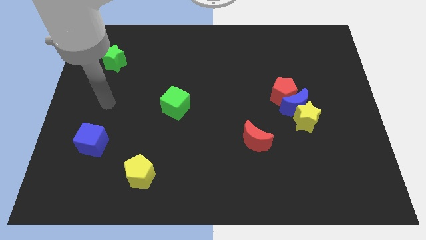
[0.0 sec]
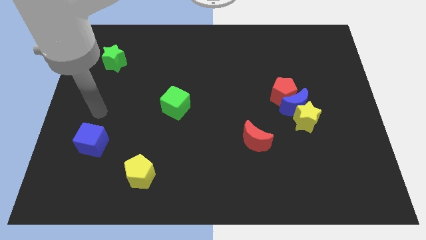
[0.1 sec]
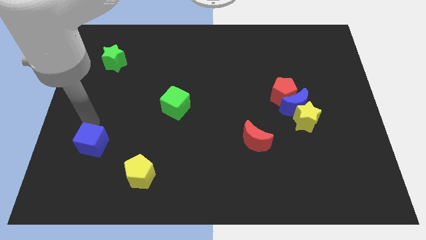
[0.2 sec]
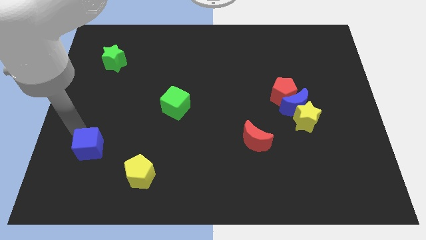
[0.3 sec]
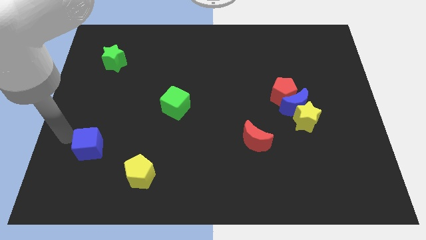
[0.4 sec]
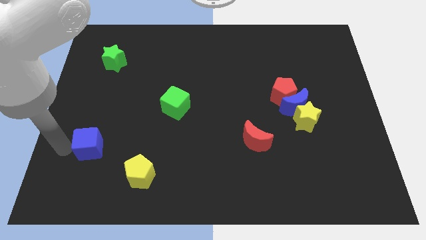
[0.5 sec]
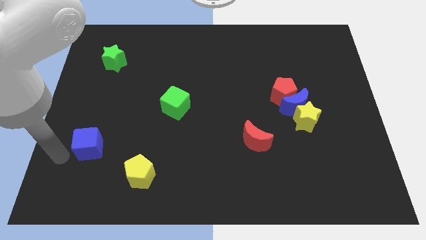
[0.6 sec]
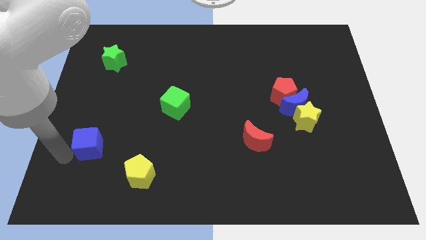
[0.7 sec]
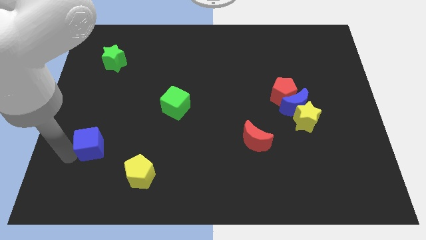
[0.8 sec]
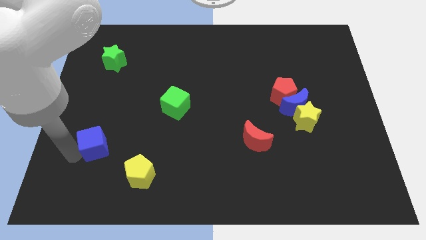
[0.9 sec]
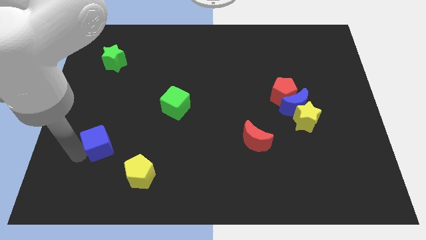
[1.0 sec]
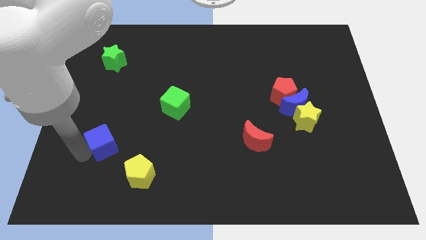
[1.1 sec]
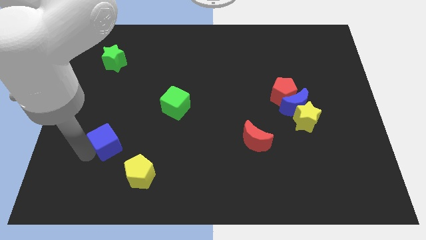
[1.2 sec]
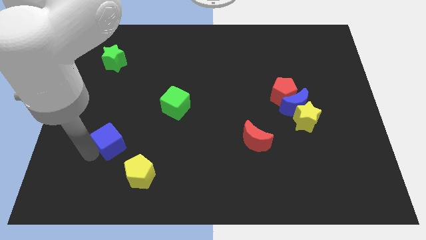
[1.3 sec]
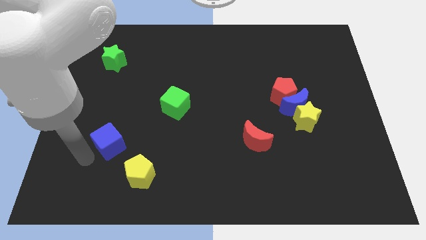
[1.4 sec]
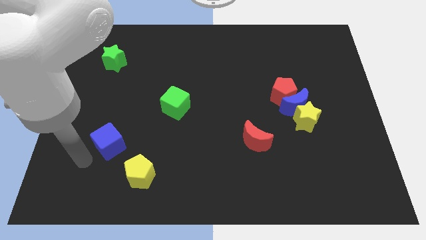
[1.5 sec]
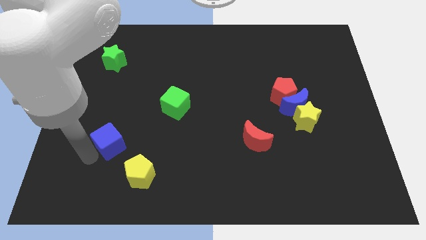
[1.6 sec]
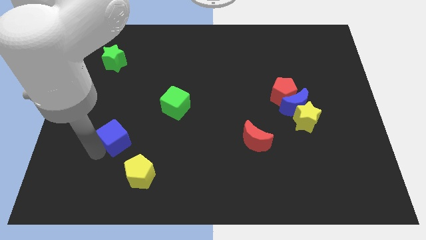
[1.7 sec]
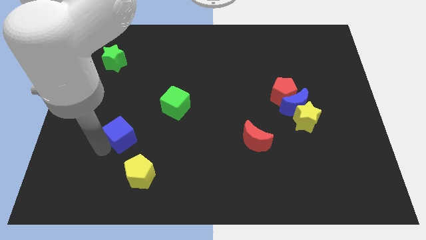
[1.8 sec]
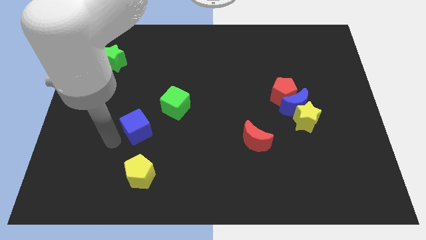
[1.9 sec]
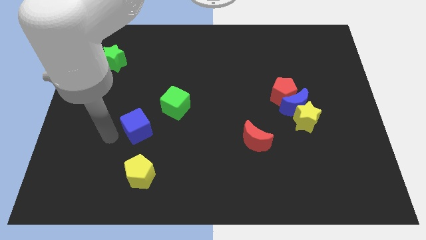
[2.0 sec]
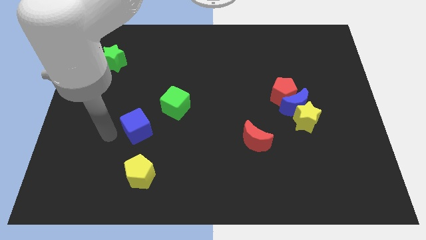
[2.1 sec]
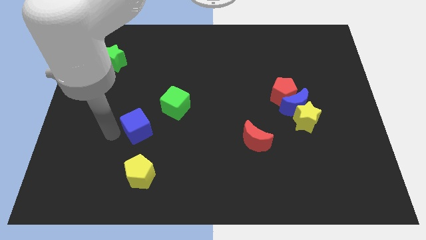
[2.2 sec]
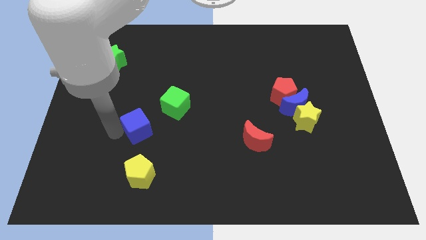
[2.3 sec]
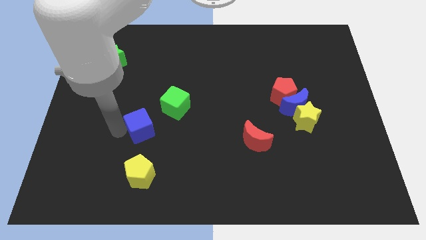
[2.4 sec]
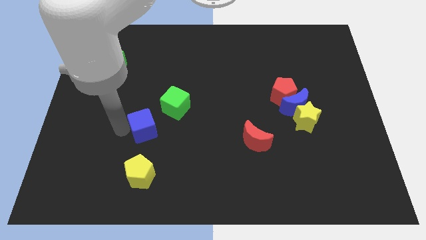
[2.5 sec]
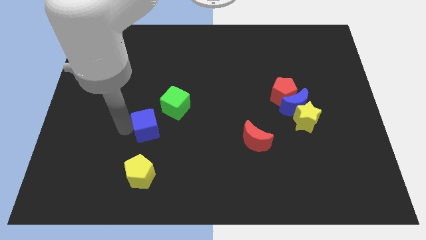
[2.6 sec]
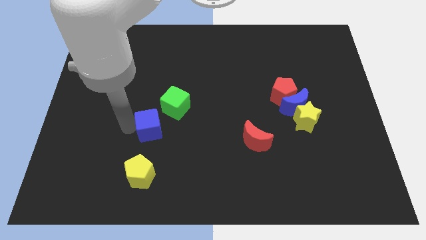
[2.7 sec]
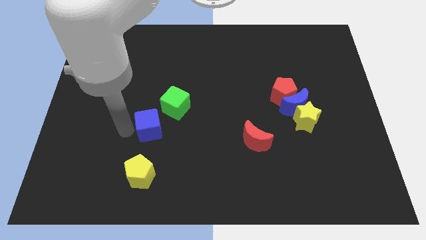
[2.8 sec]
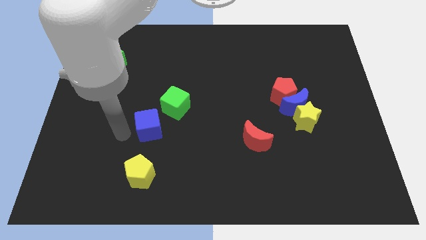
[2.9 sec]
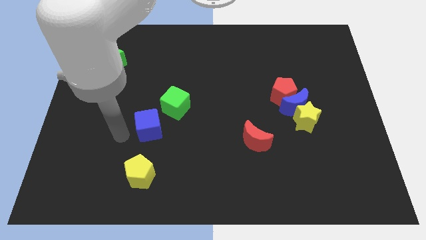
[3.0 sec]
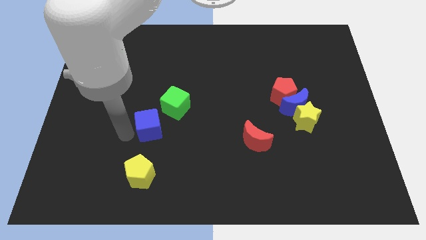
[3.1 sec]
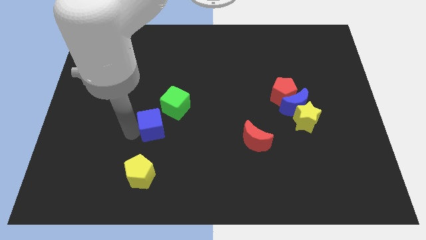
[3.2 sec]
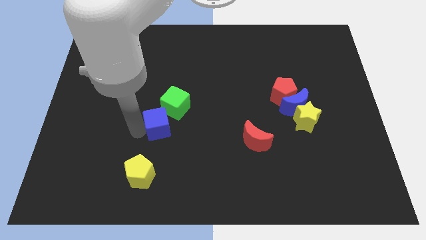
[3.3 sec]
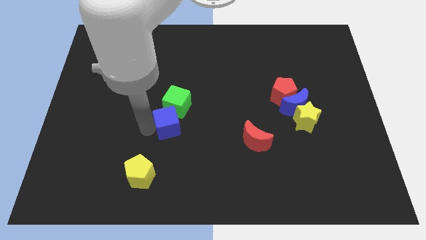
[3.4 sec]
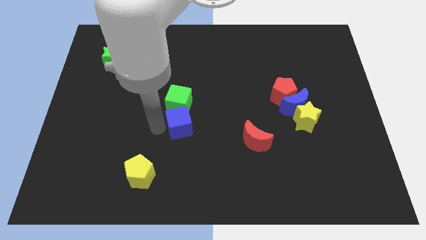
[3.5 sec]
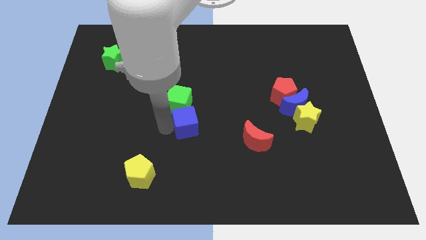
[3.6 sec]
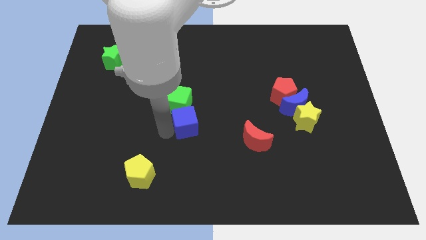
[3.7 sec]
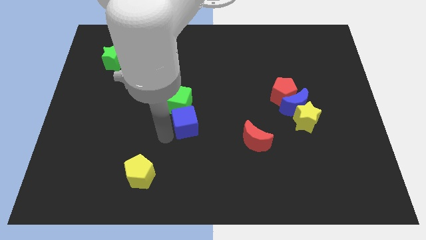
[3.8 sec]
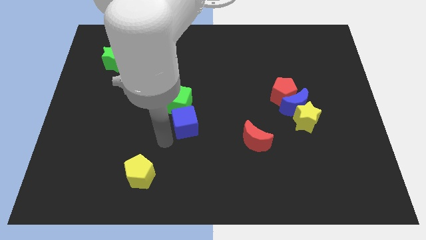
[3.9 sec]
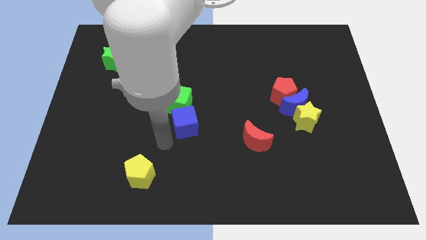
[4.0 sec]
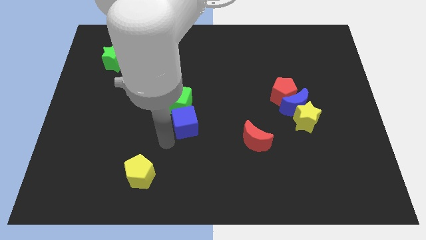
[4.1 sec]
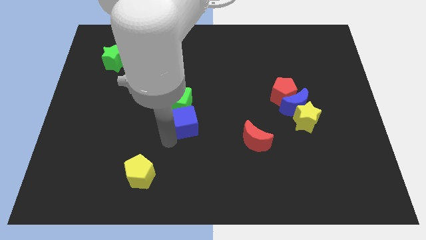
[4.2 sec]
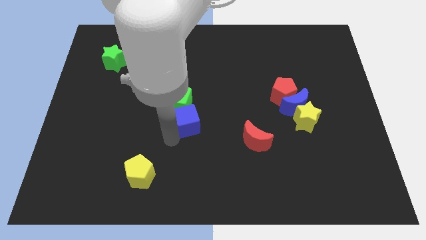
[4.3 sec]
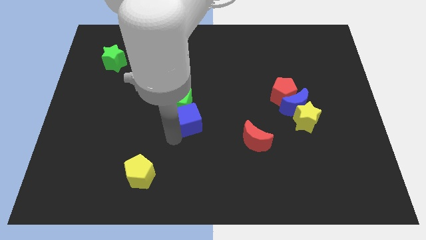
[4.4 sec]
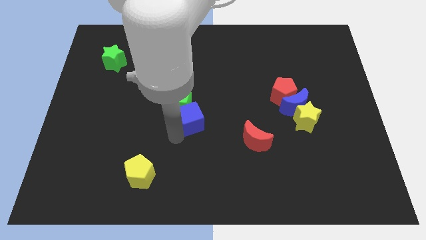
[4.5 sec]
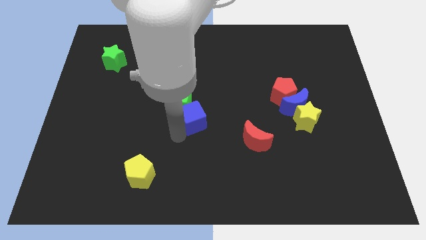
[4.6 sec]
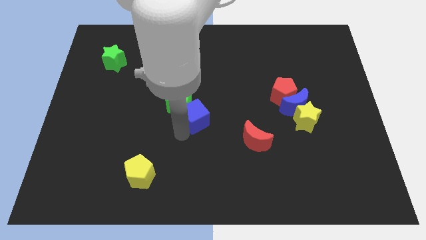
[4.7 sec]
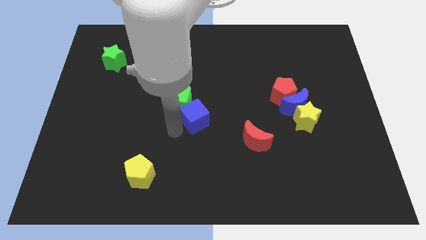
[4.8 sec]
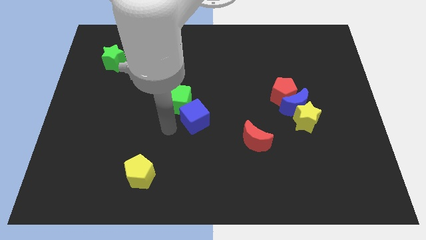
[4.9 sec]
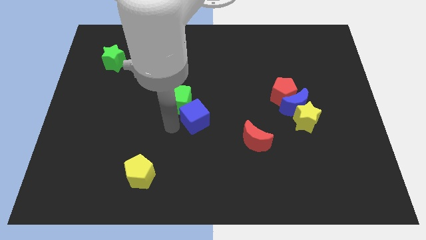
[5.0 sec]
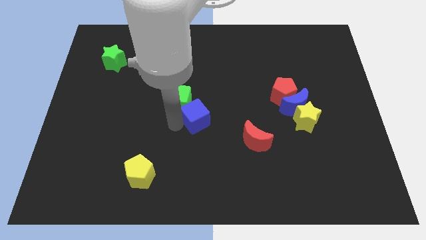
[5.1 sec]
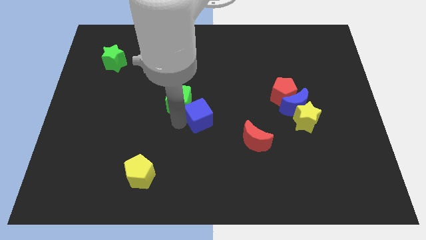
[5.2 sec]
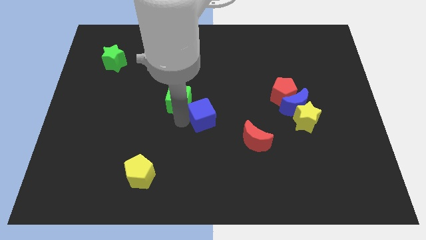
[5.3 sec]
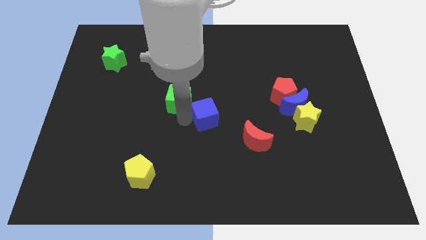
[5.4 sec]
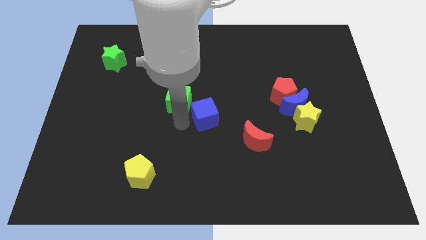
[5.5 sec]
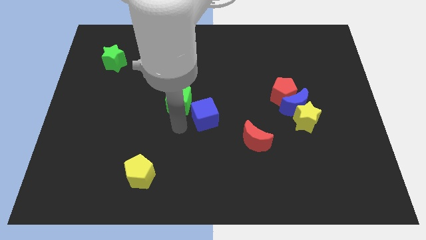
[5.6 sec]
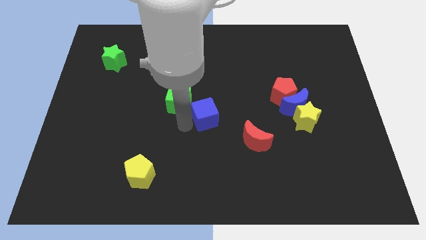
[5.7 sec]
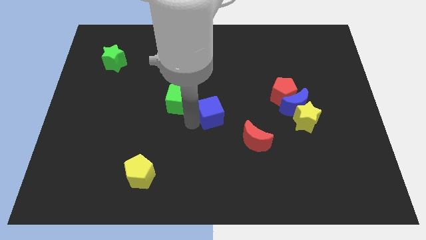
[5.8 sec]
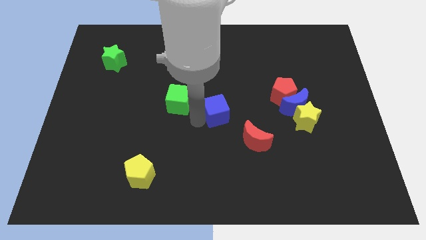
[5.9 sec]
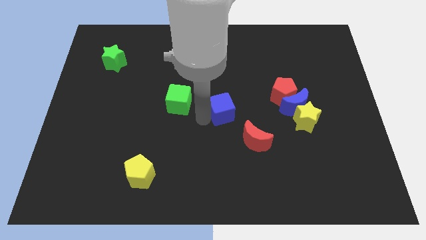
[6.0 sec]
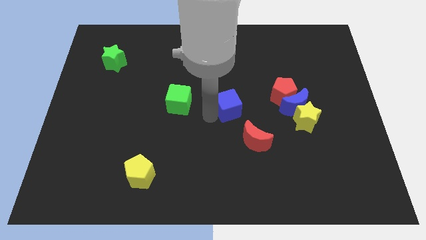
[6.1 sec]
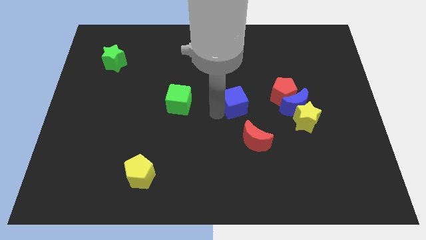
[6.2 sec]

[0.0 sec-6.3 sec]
move the blue cube to the top of the red moon

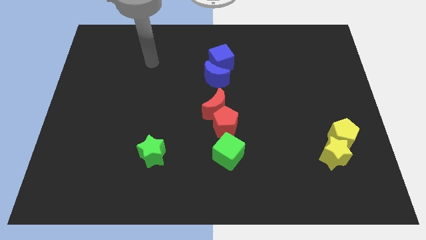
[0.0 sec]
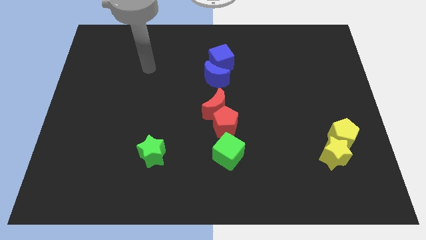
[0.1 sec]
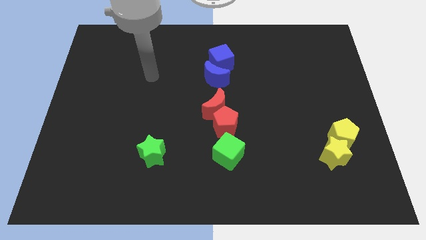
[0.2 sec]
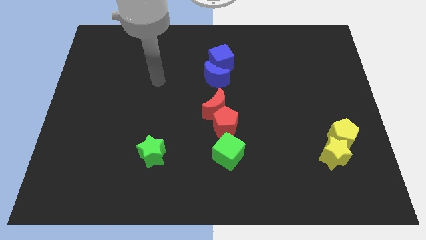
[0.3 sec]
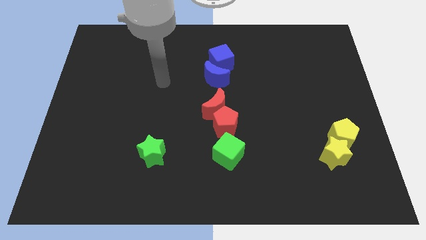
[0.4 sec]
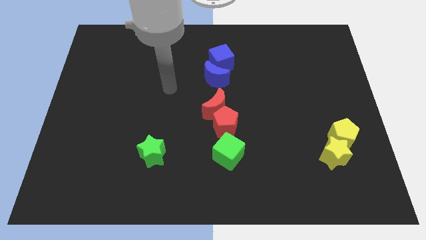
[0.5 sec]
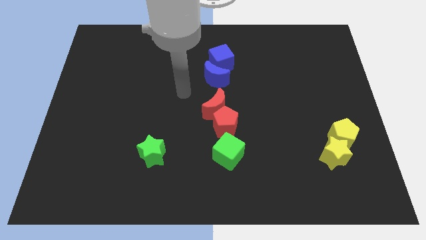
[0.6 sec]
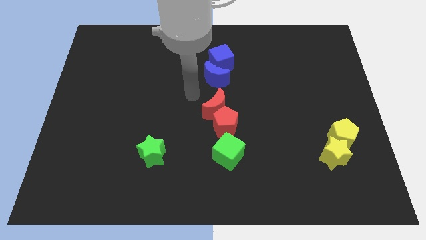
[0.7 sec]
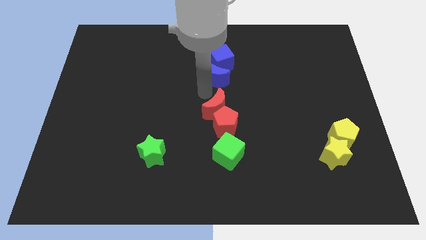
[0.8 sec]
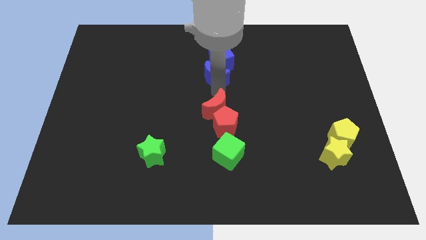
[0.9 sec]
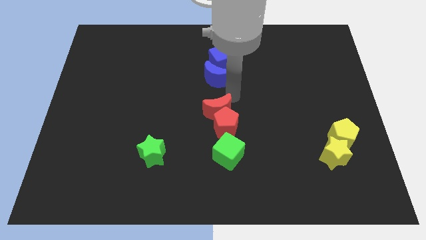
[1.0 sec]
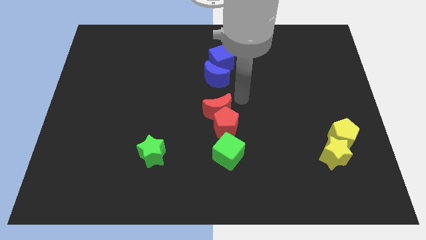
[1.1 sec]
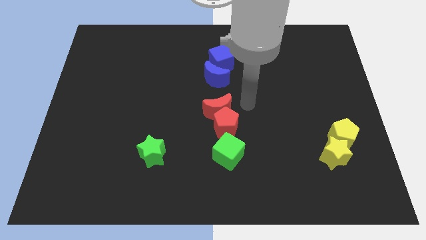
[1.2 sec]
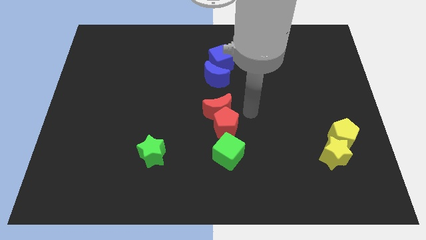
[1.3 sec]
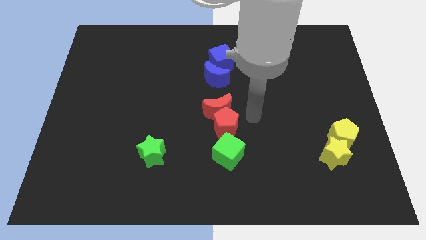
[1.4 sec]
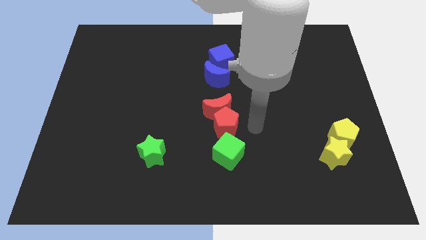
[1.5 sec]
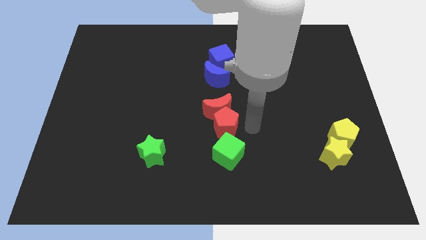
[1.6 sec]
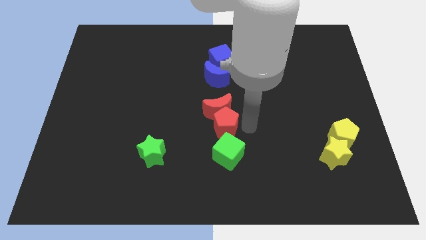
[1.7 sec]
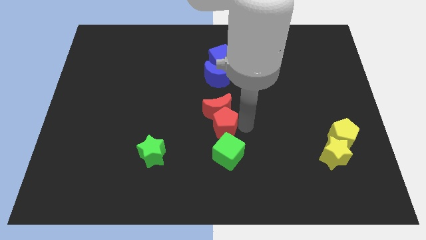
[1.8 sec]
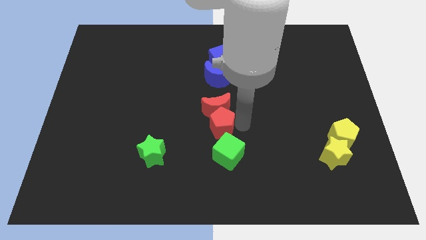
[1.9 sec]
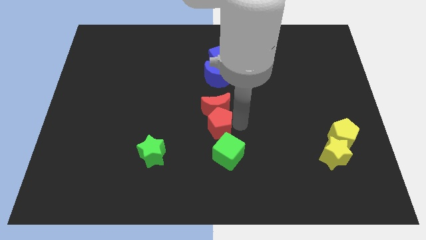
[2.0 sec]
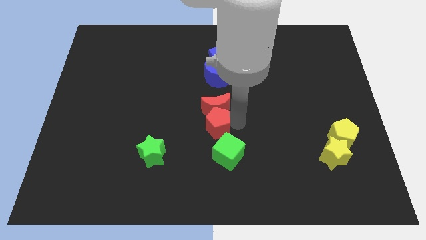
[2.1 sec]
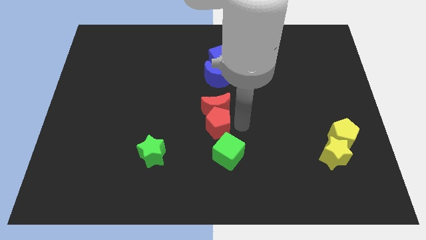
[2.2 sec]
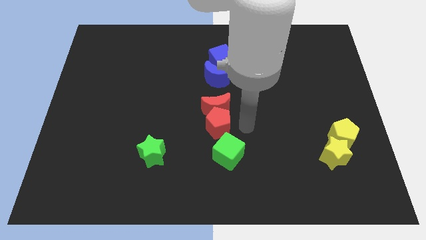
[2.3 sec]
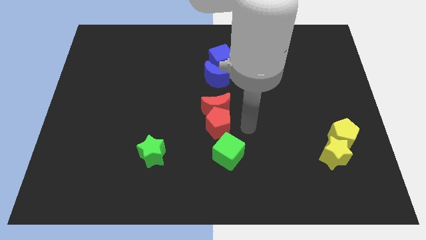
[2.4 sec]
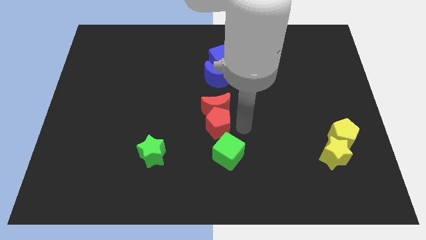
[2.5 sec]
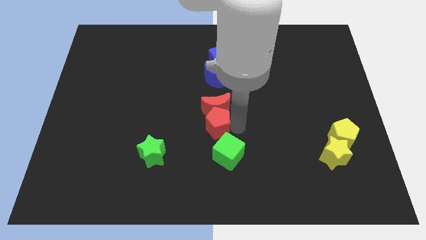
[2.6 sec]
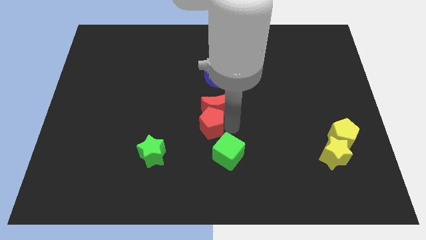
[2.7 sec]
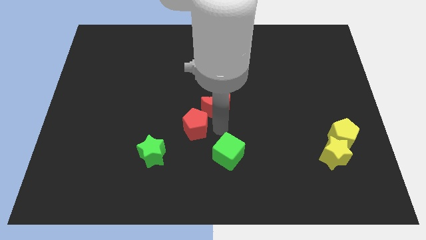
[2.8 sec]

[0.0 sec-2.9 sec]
slide the red pentagon left of the red moon
